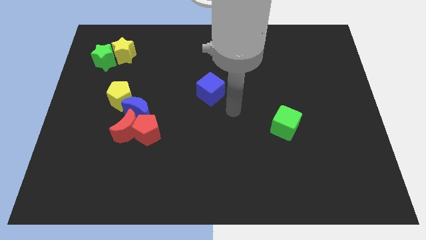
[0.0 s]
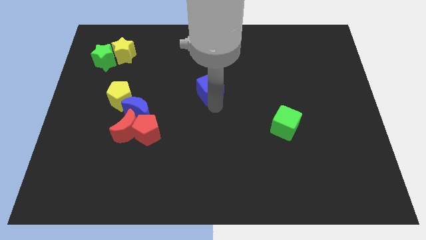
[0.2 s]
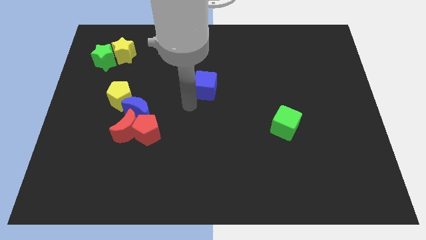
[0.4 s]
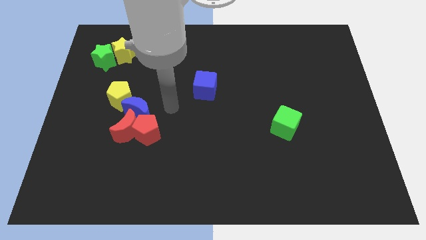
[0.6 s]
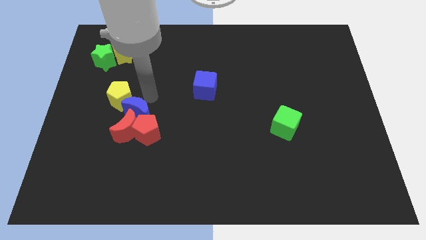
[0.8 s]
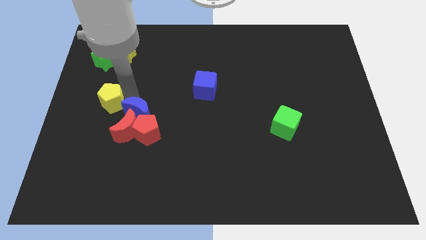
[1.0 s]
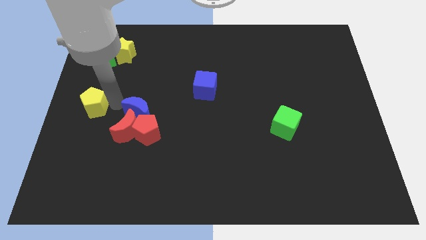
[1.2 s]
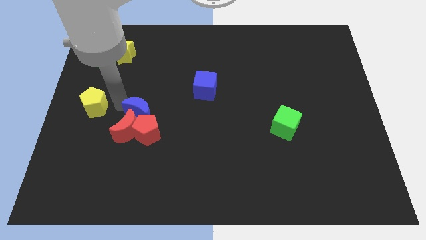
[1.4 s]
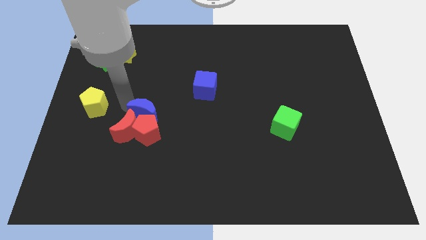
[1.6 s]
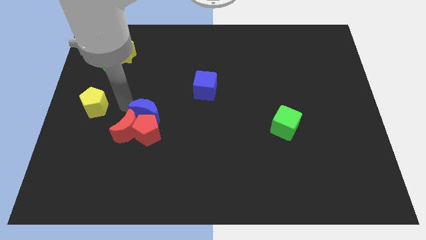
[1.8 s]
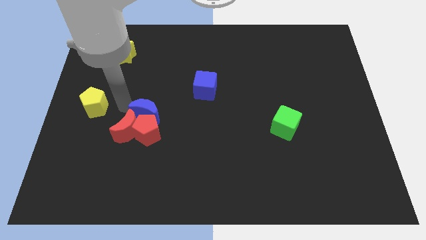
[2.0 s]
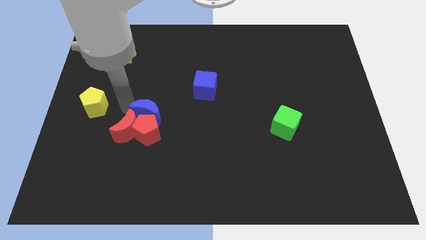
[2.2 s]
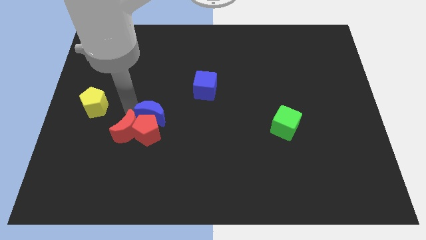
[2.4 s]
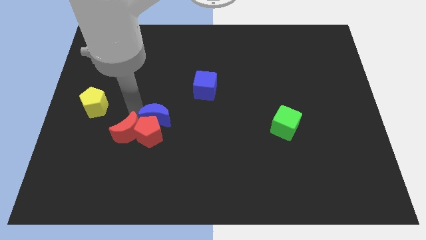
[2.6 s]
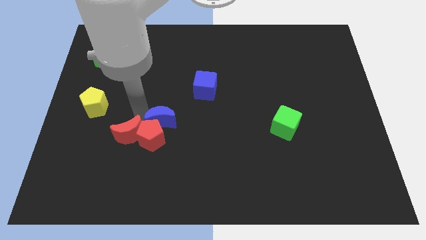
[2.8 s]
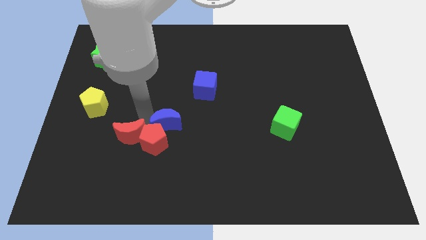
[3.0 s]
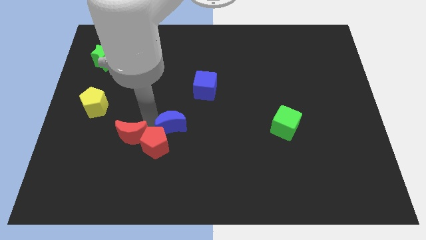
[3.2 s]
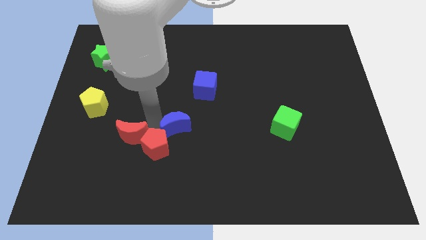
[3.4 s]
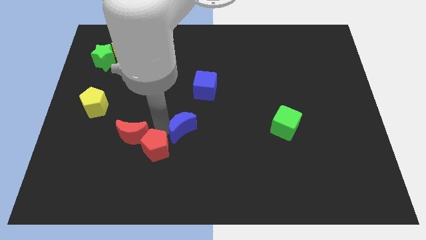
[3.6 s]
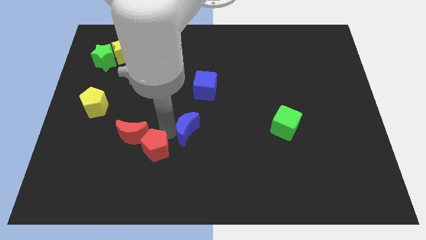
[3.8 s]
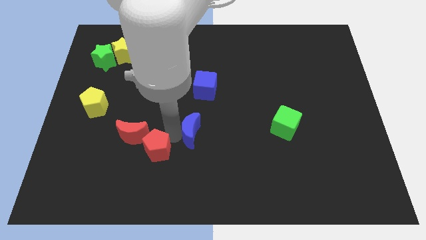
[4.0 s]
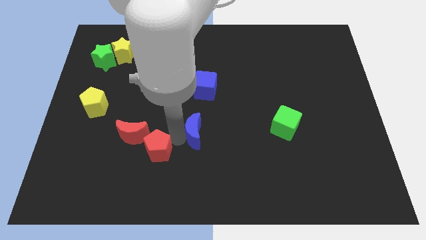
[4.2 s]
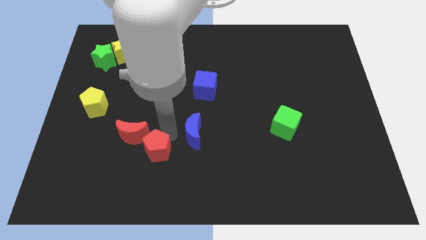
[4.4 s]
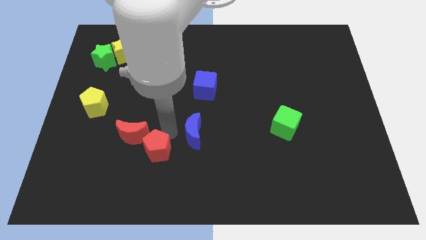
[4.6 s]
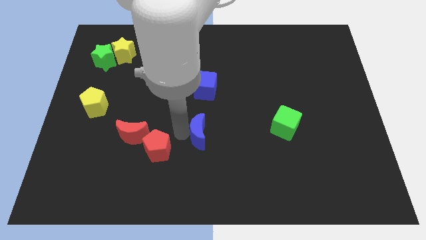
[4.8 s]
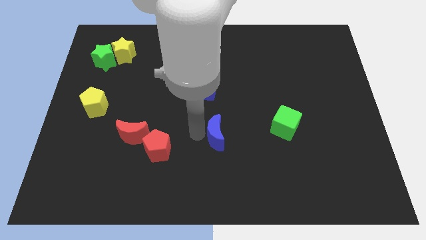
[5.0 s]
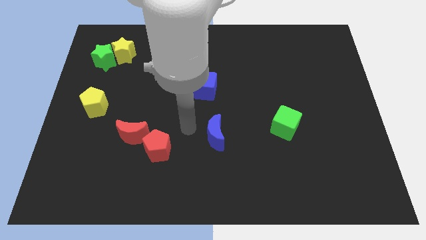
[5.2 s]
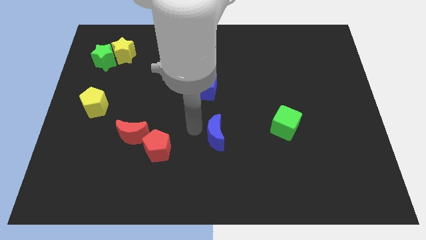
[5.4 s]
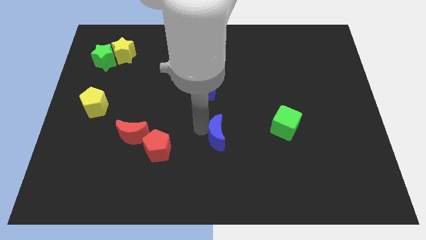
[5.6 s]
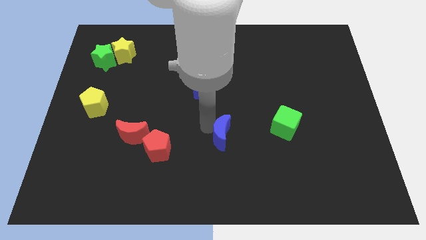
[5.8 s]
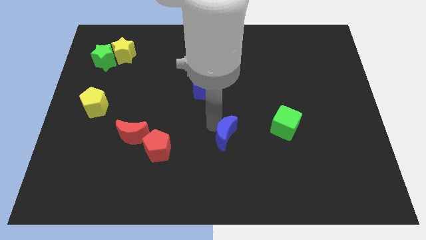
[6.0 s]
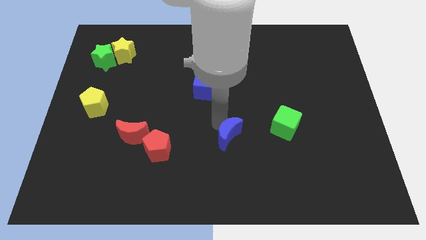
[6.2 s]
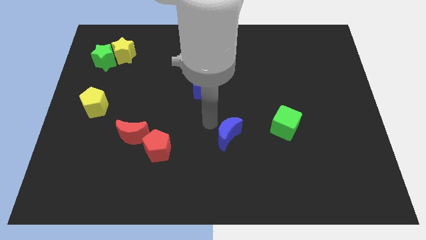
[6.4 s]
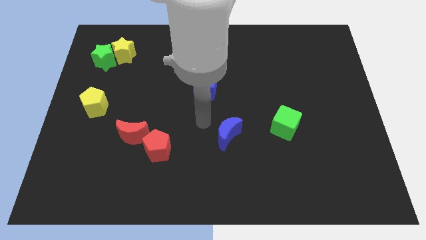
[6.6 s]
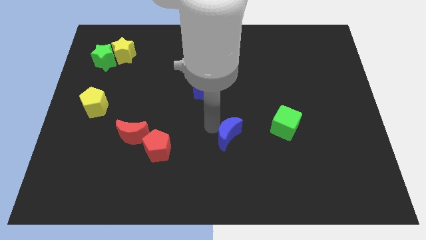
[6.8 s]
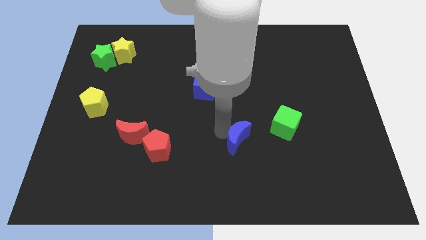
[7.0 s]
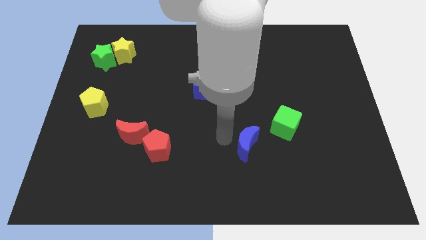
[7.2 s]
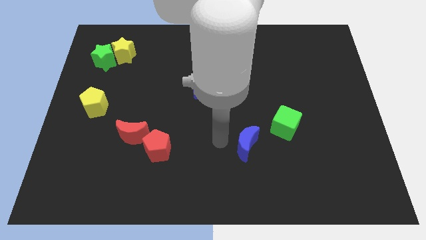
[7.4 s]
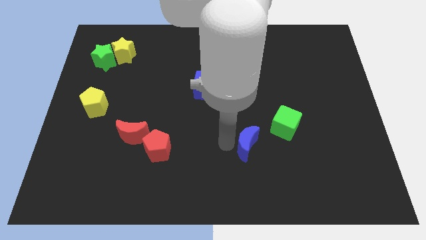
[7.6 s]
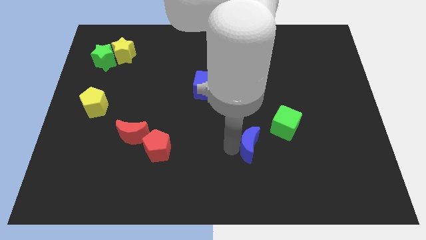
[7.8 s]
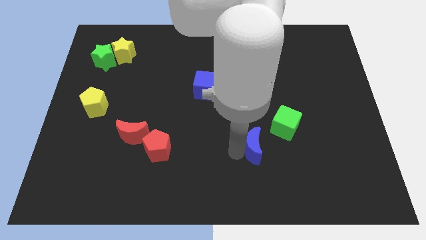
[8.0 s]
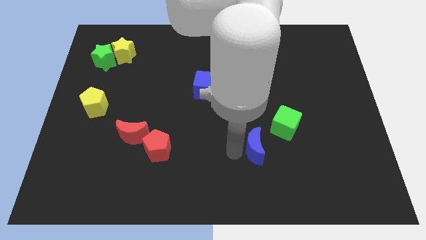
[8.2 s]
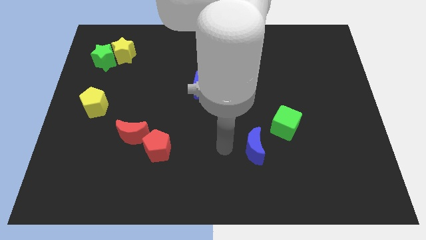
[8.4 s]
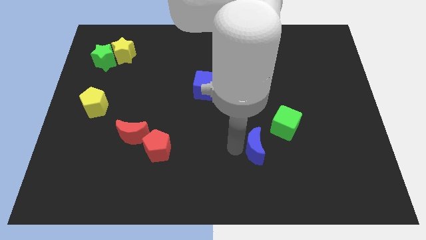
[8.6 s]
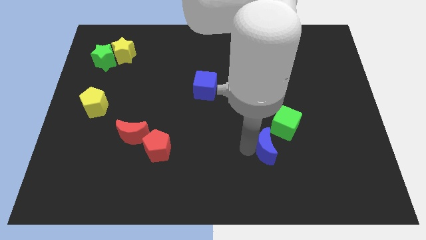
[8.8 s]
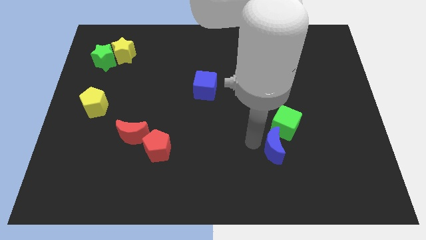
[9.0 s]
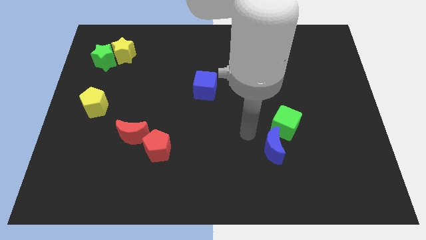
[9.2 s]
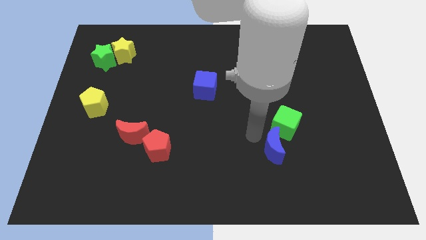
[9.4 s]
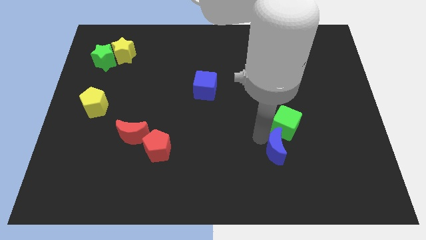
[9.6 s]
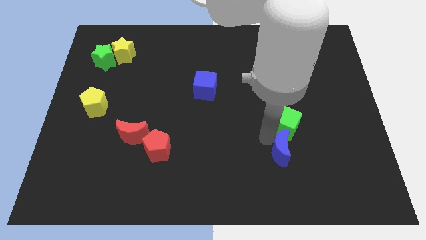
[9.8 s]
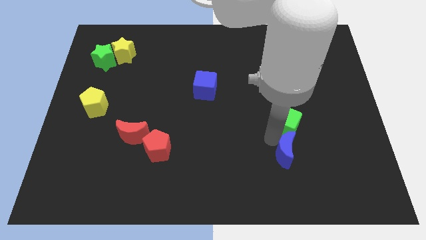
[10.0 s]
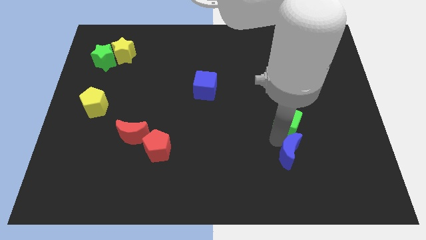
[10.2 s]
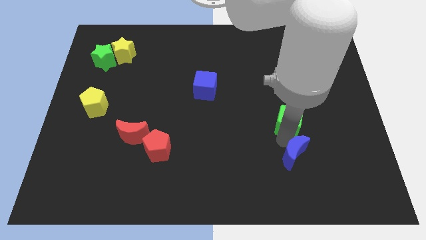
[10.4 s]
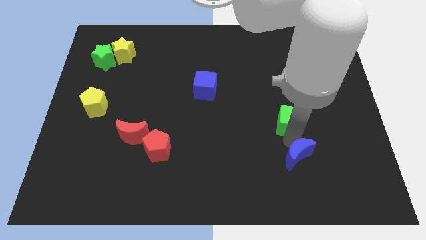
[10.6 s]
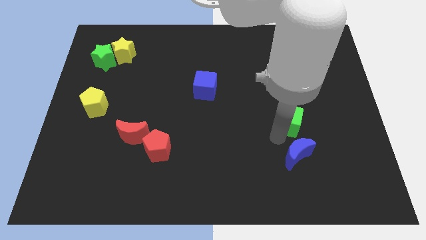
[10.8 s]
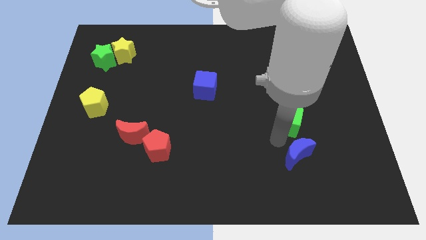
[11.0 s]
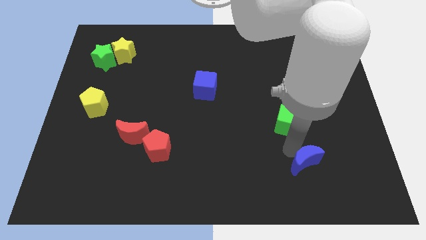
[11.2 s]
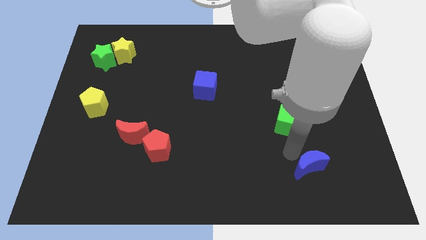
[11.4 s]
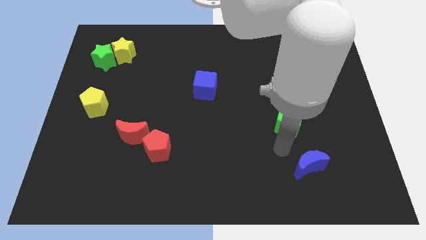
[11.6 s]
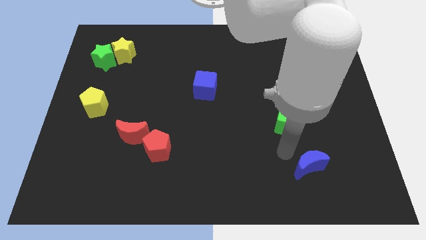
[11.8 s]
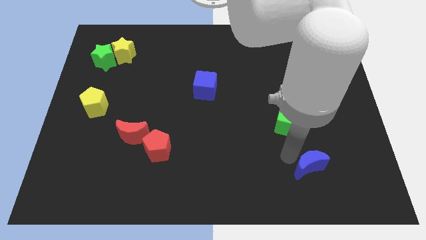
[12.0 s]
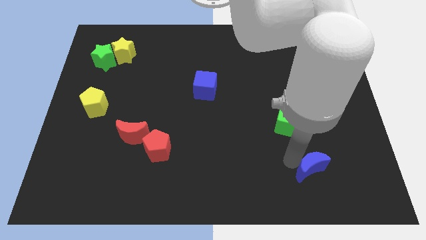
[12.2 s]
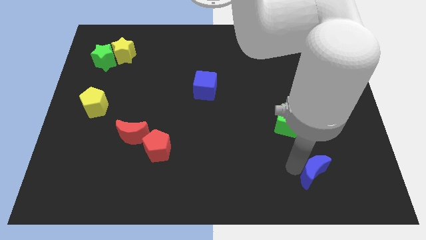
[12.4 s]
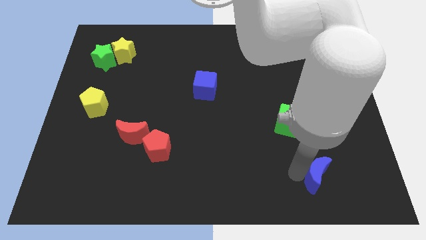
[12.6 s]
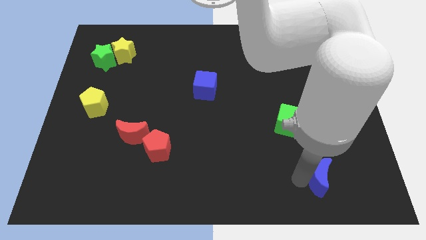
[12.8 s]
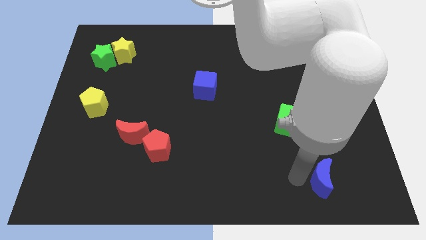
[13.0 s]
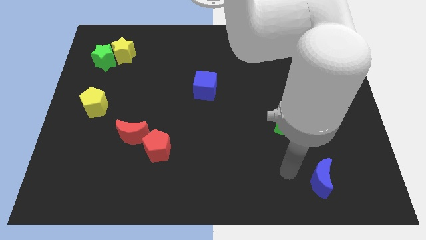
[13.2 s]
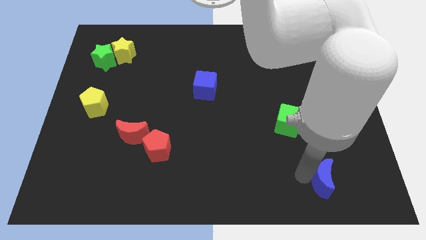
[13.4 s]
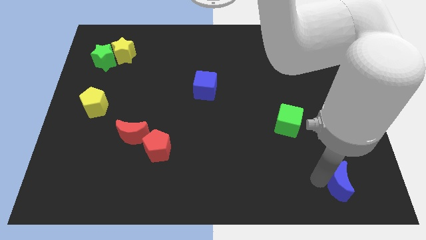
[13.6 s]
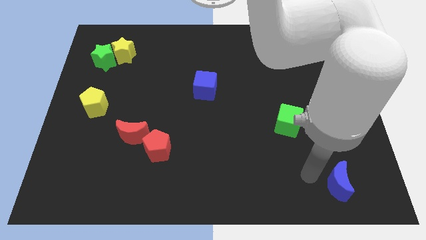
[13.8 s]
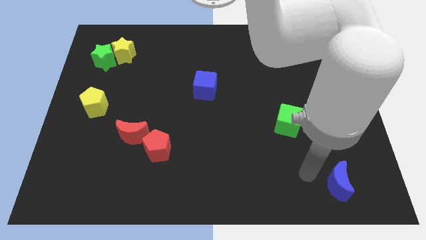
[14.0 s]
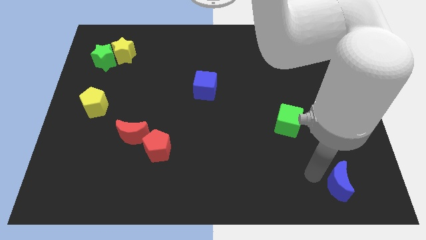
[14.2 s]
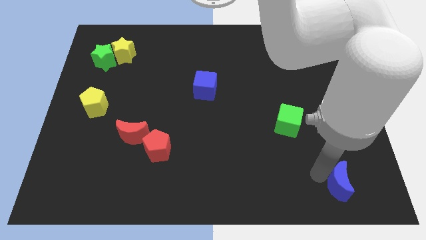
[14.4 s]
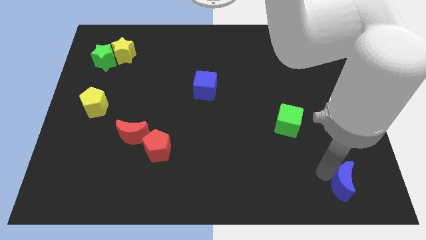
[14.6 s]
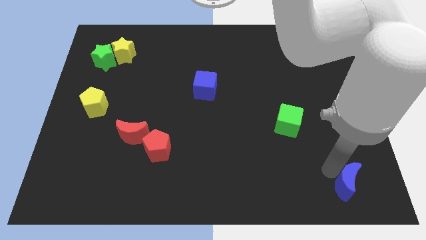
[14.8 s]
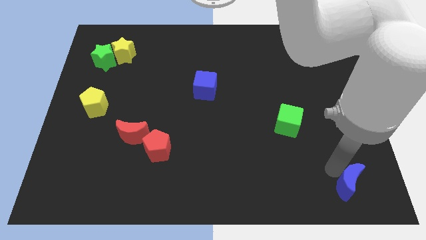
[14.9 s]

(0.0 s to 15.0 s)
move the blue moon to the lower right corner
